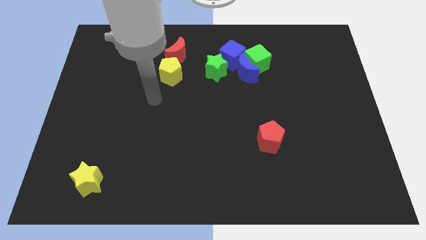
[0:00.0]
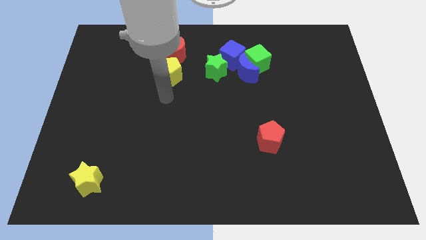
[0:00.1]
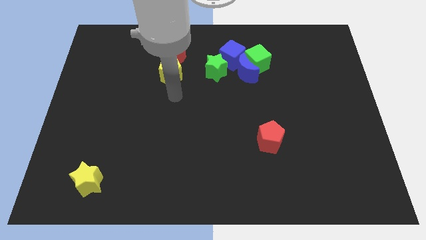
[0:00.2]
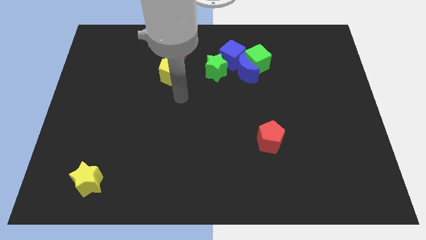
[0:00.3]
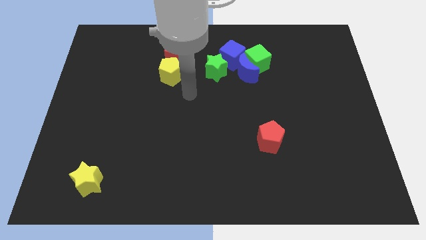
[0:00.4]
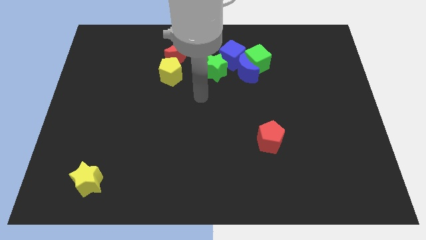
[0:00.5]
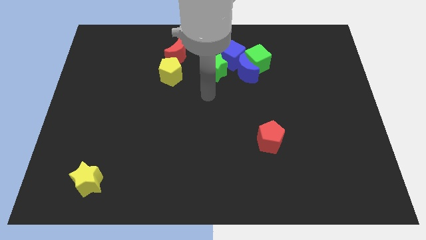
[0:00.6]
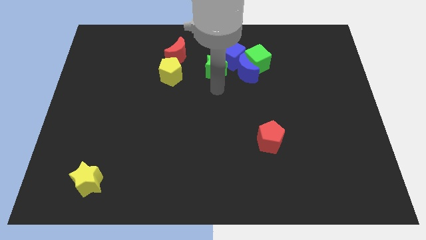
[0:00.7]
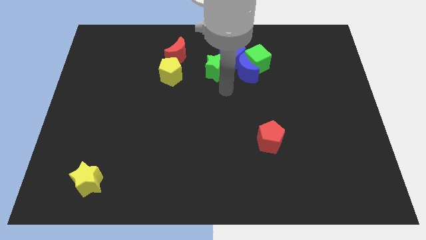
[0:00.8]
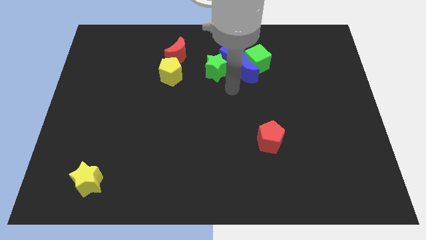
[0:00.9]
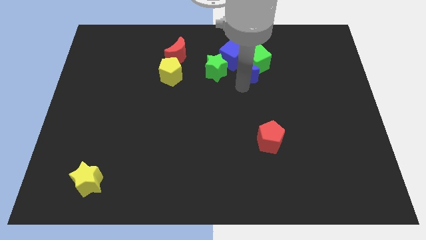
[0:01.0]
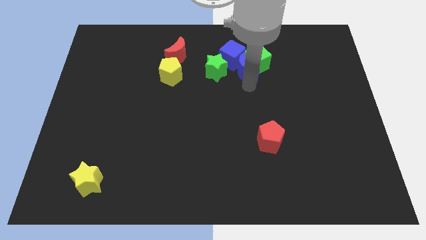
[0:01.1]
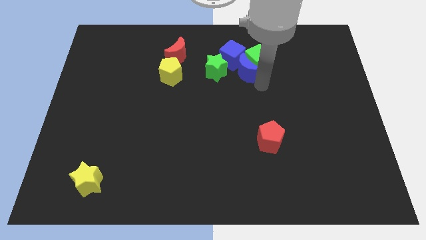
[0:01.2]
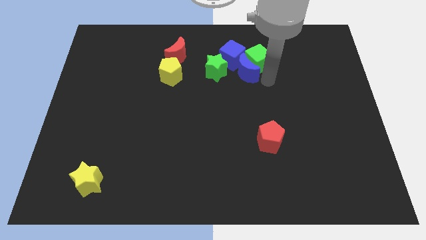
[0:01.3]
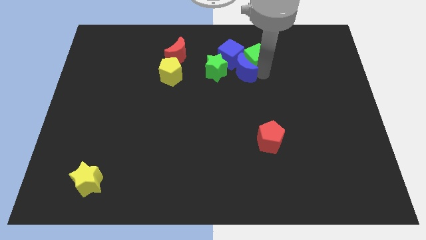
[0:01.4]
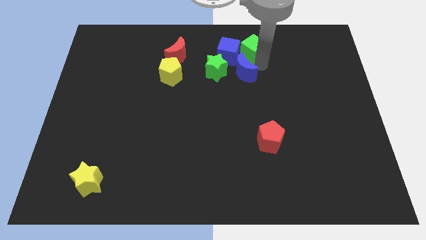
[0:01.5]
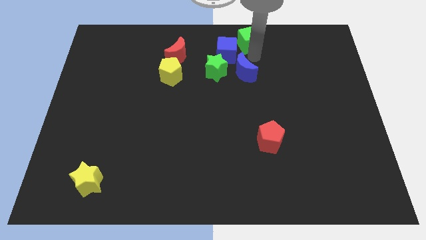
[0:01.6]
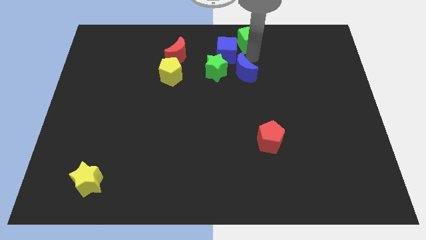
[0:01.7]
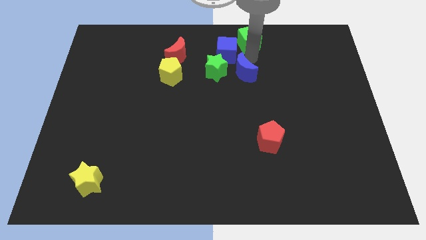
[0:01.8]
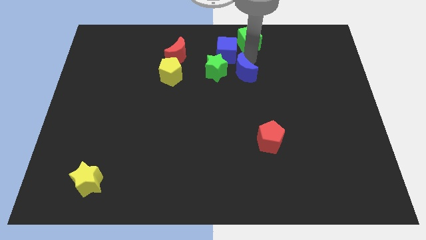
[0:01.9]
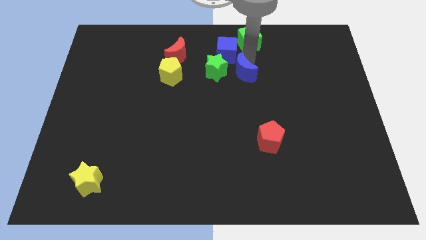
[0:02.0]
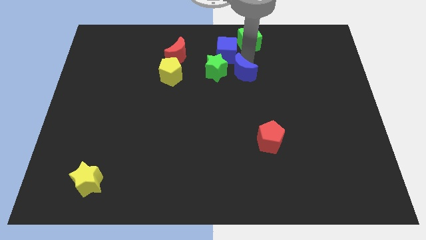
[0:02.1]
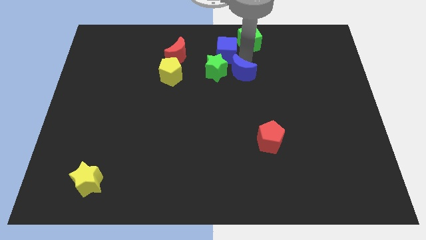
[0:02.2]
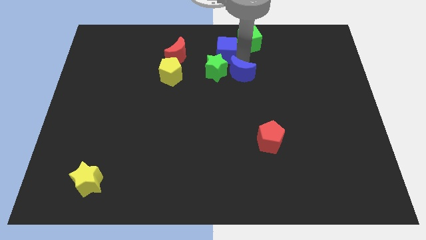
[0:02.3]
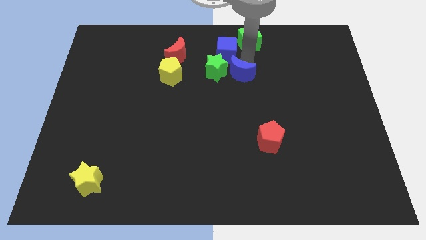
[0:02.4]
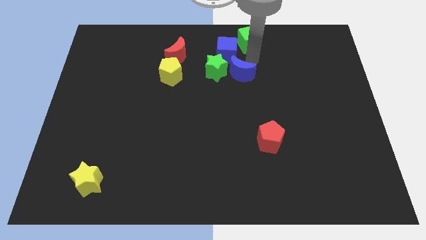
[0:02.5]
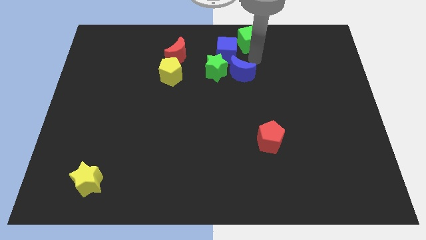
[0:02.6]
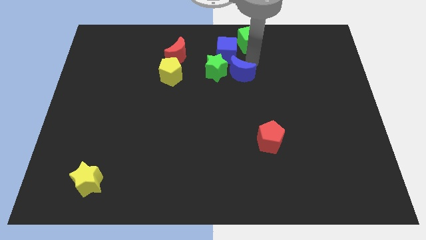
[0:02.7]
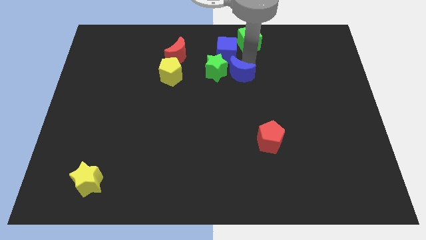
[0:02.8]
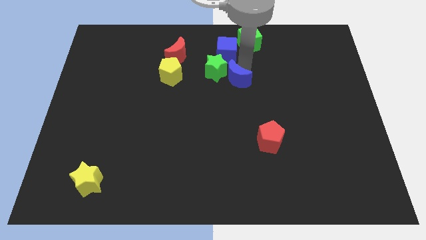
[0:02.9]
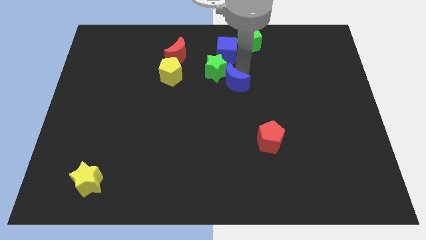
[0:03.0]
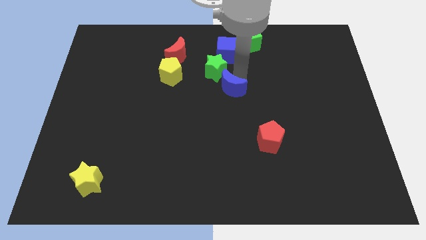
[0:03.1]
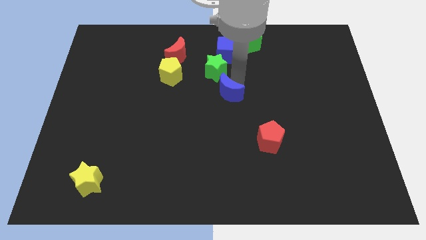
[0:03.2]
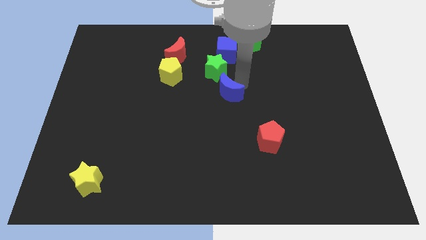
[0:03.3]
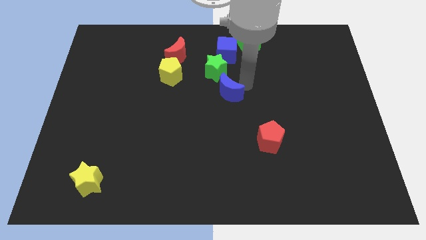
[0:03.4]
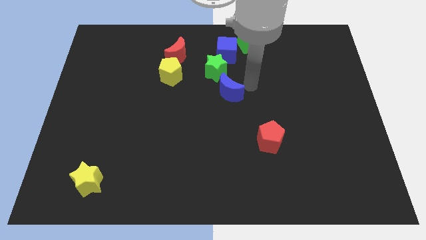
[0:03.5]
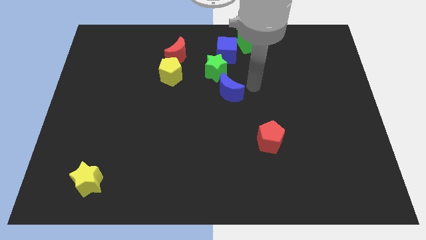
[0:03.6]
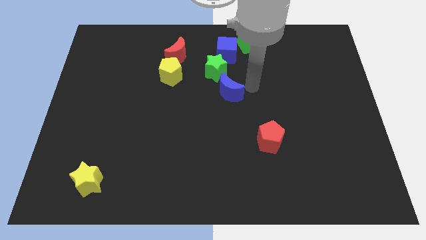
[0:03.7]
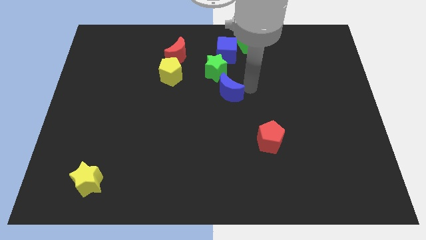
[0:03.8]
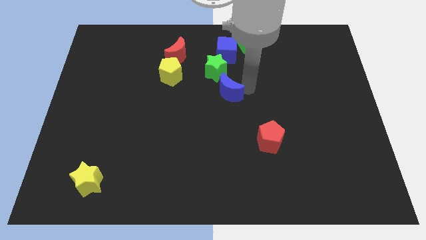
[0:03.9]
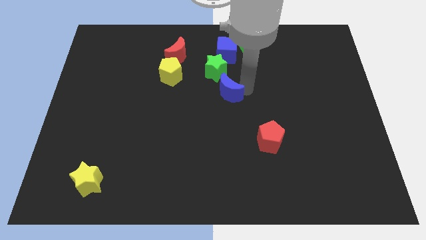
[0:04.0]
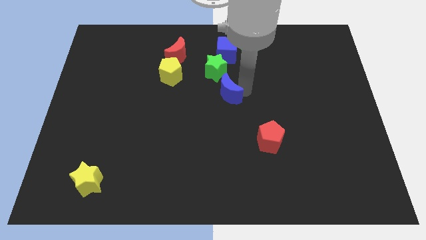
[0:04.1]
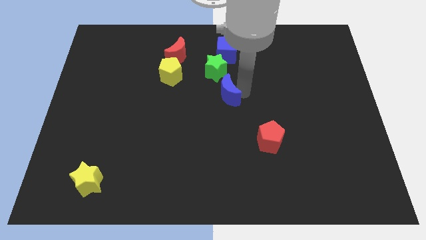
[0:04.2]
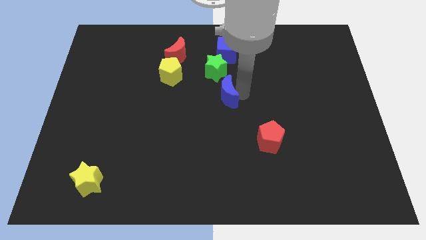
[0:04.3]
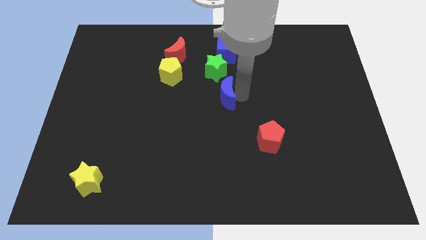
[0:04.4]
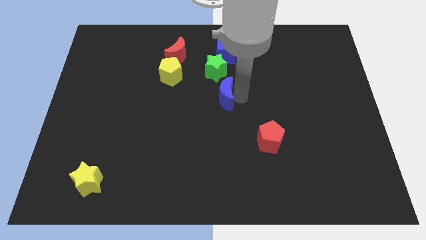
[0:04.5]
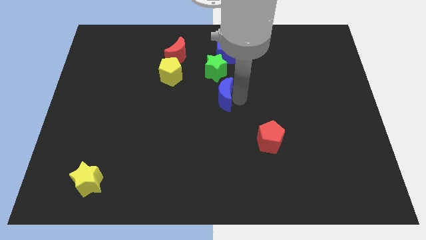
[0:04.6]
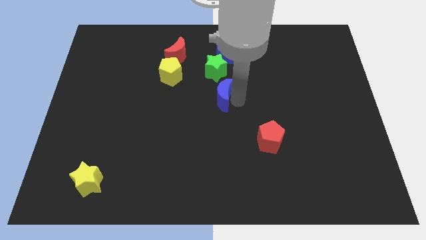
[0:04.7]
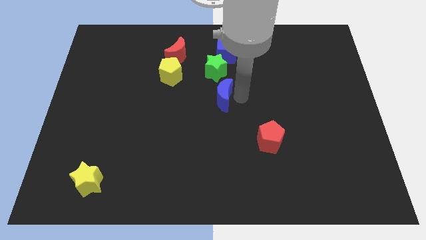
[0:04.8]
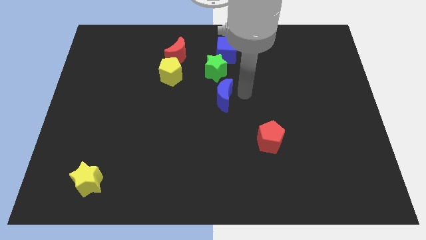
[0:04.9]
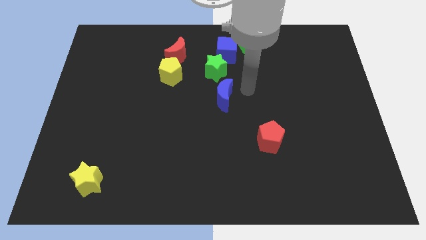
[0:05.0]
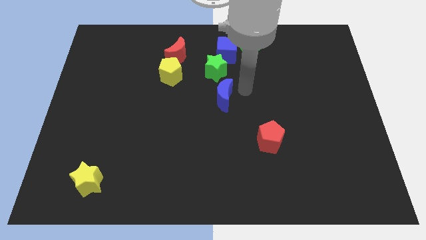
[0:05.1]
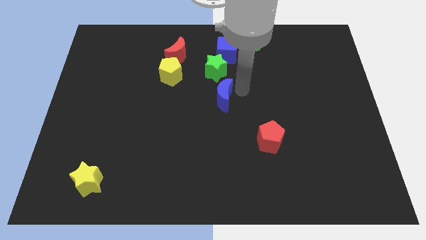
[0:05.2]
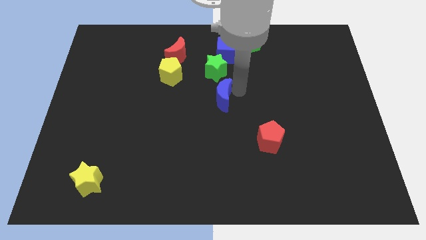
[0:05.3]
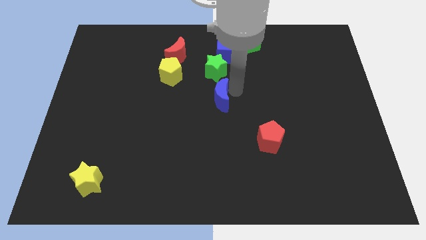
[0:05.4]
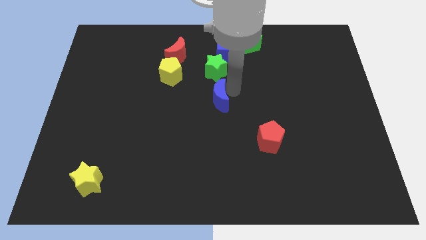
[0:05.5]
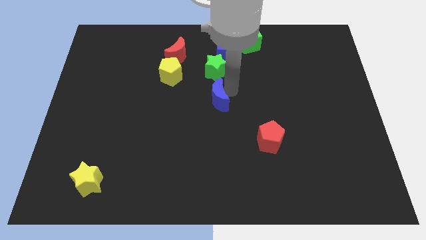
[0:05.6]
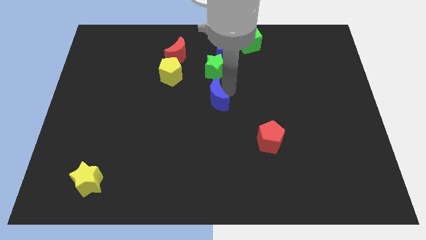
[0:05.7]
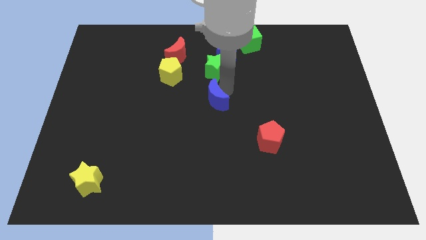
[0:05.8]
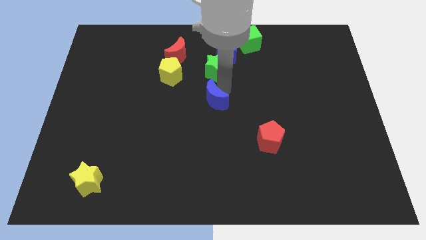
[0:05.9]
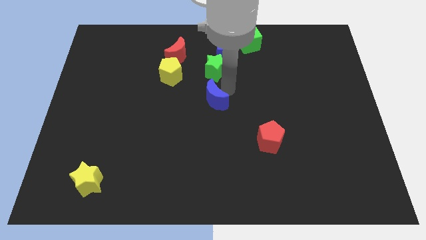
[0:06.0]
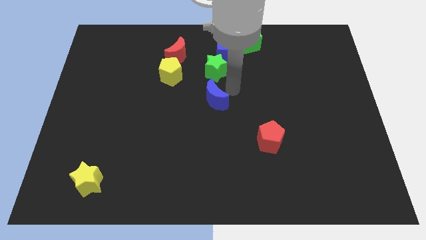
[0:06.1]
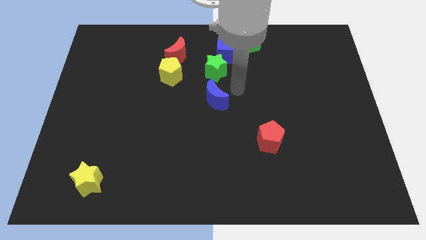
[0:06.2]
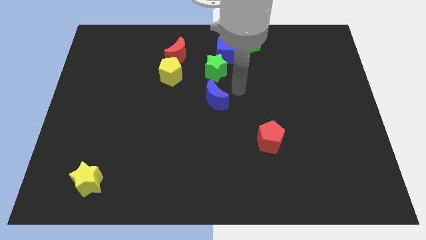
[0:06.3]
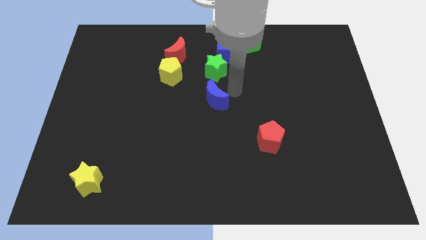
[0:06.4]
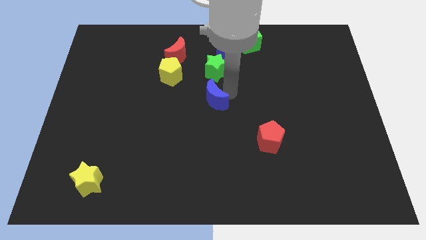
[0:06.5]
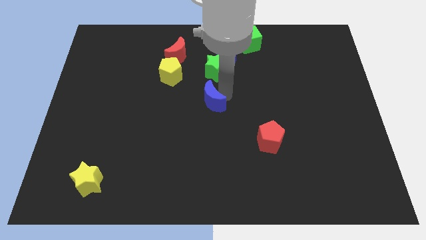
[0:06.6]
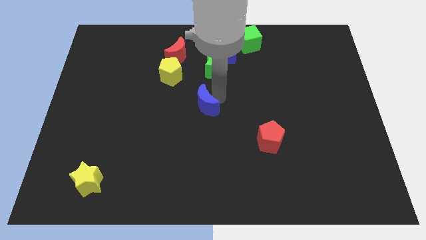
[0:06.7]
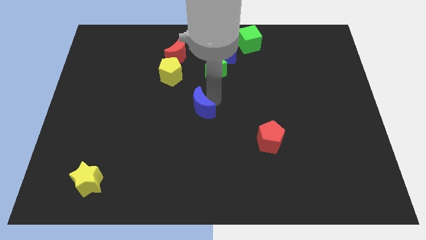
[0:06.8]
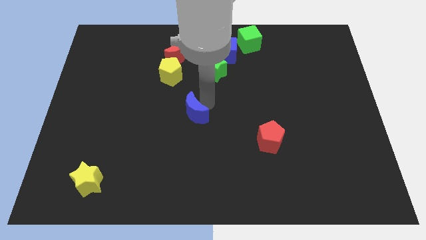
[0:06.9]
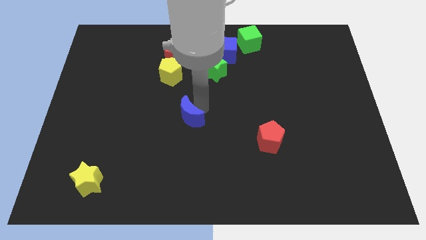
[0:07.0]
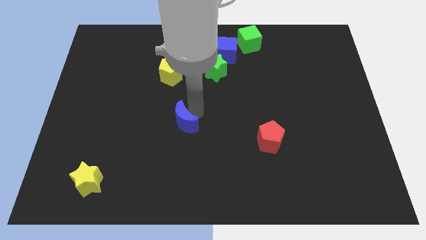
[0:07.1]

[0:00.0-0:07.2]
move the blue moon downwards and to the left

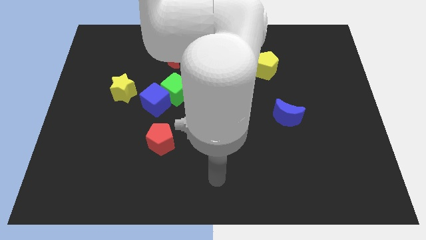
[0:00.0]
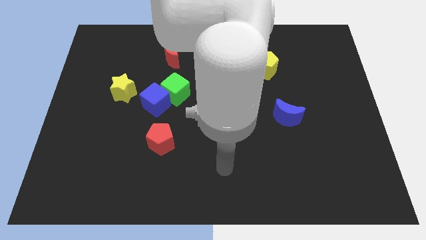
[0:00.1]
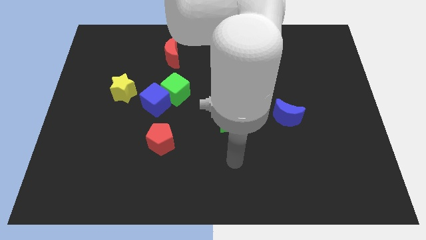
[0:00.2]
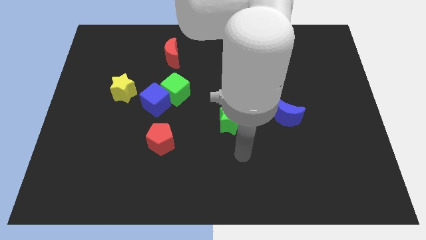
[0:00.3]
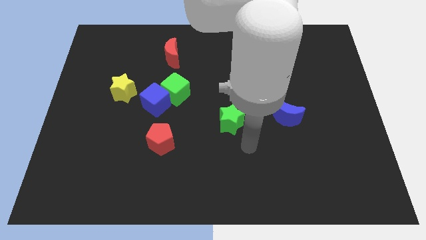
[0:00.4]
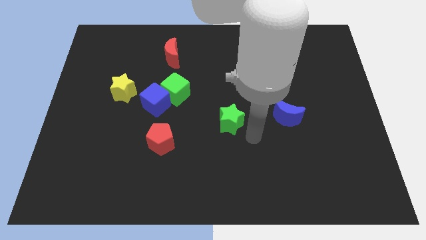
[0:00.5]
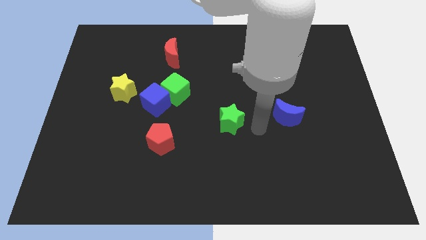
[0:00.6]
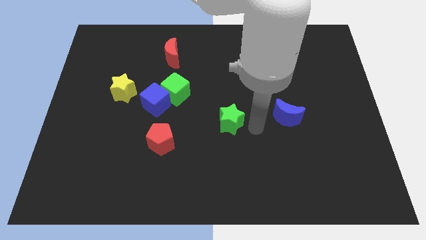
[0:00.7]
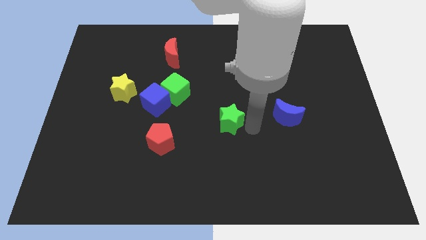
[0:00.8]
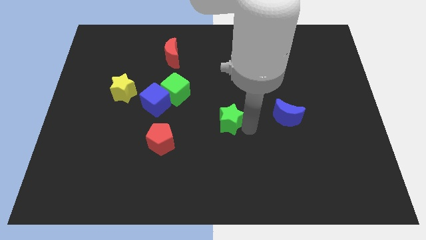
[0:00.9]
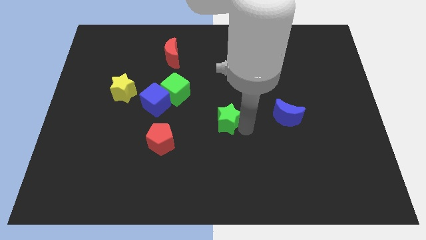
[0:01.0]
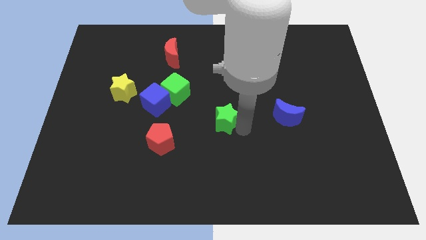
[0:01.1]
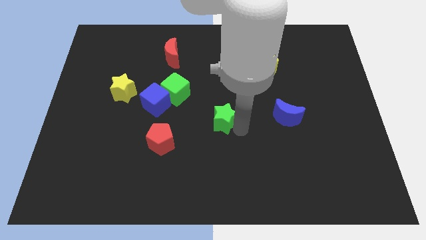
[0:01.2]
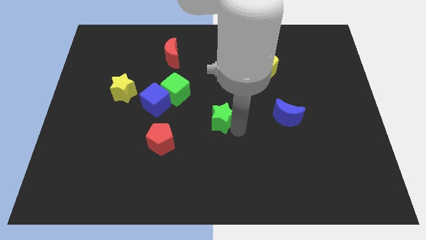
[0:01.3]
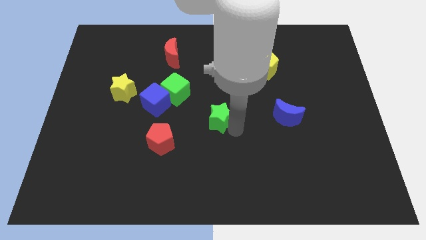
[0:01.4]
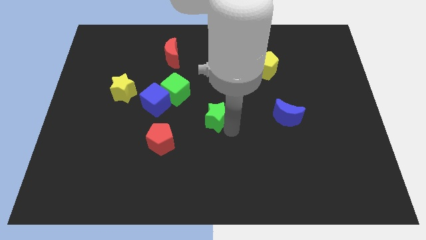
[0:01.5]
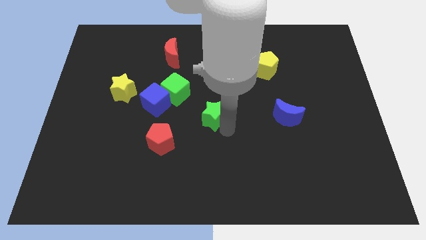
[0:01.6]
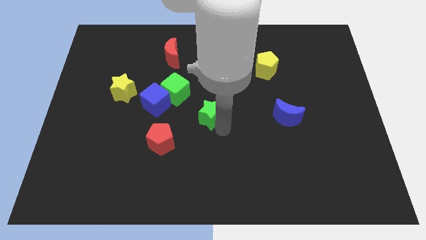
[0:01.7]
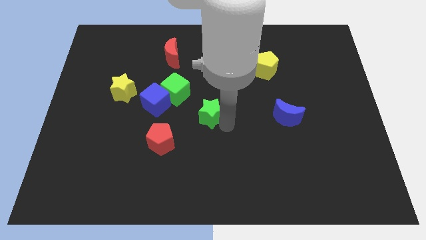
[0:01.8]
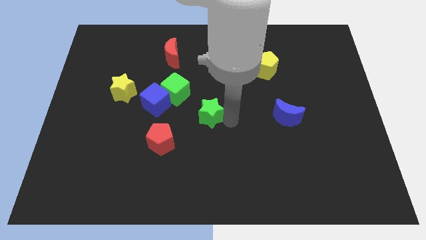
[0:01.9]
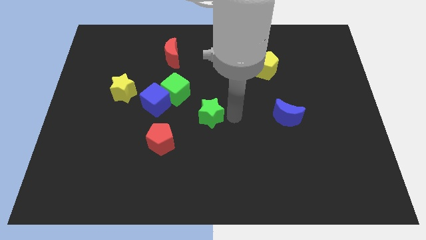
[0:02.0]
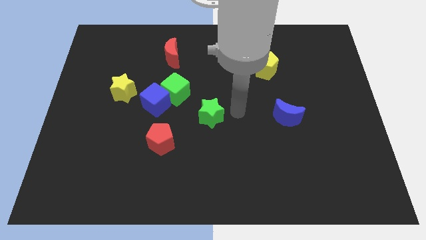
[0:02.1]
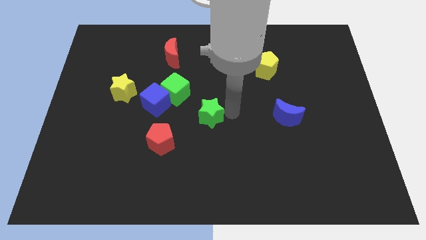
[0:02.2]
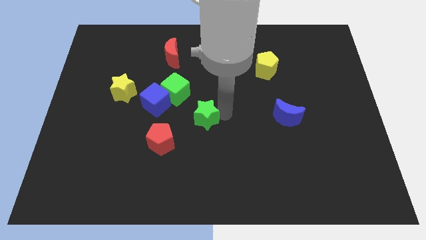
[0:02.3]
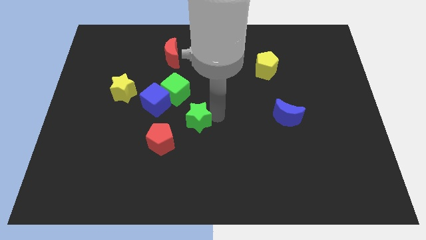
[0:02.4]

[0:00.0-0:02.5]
slide the green star to the left a little bit
